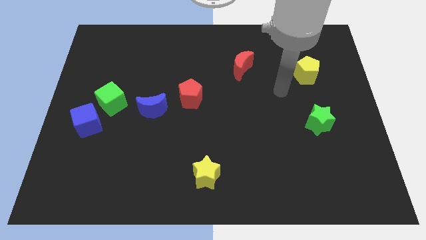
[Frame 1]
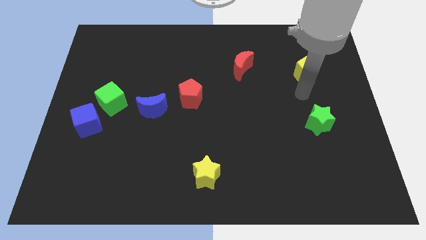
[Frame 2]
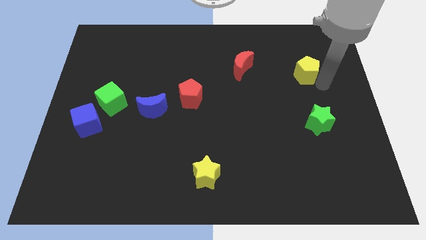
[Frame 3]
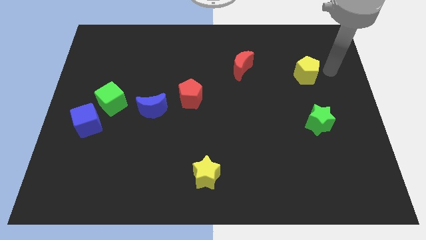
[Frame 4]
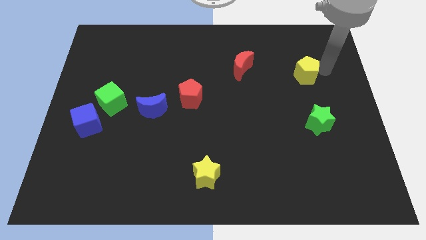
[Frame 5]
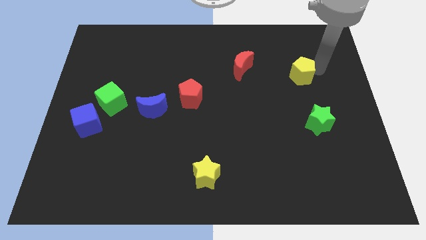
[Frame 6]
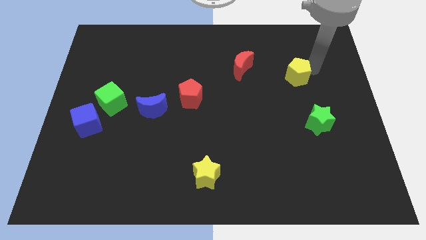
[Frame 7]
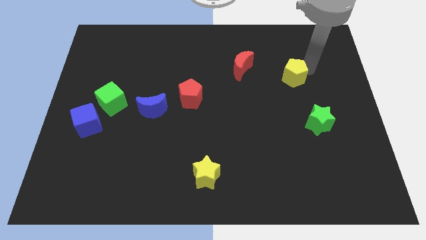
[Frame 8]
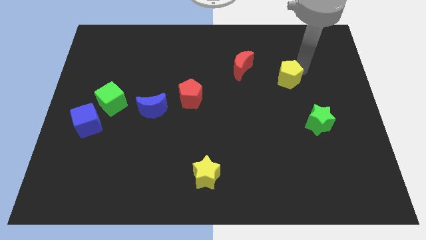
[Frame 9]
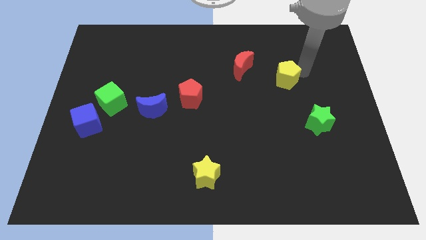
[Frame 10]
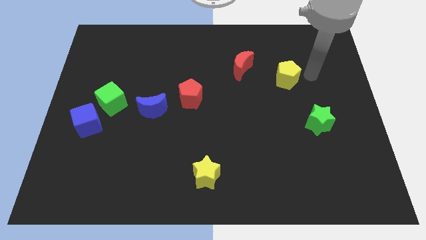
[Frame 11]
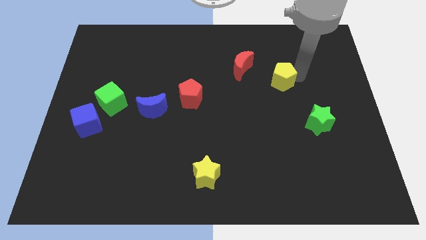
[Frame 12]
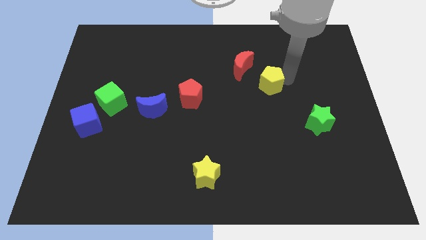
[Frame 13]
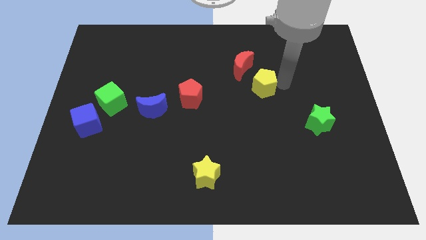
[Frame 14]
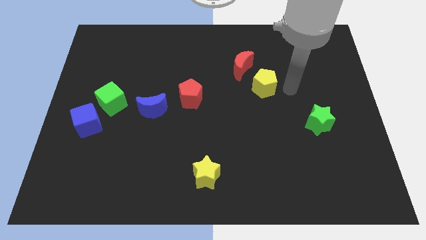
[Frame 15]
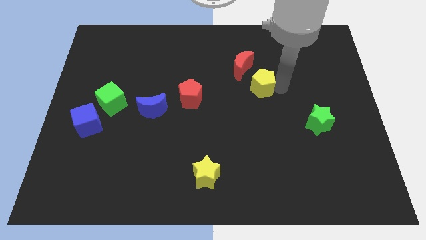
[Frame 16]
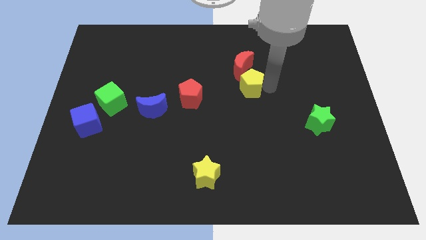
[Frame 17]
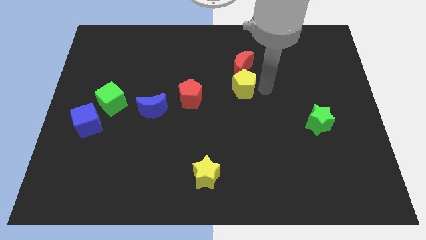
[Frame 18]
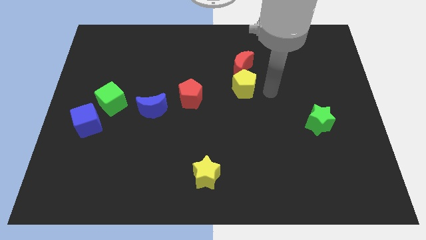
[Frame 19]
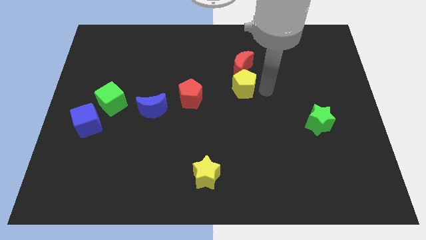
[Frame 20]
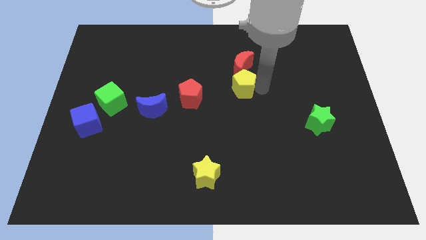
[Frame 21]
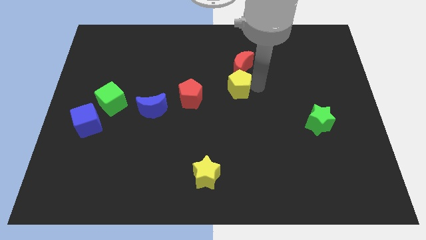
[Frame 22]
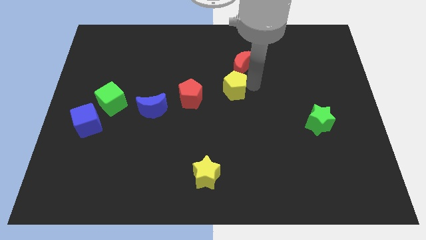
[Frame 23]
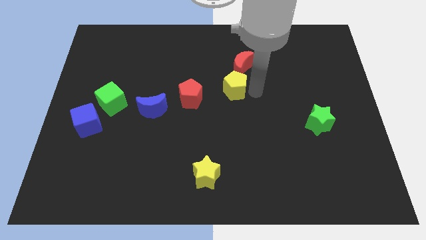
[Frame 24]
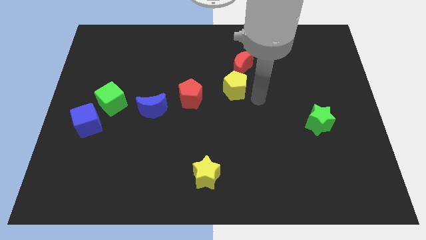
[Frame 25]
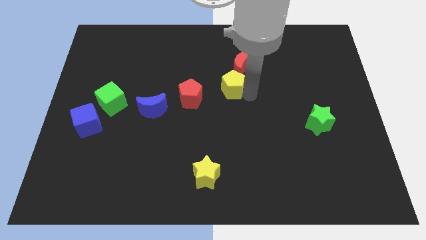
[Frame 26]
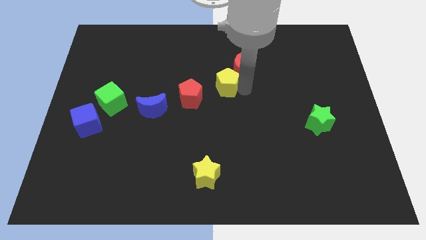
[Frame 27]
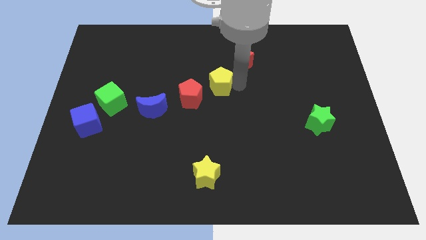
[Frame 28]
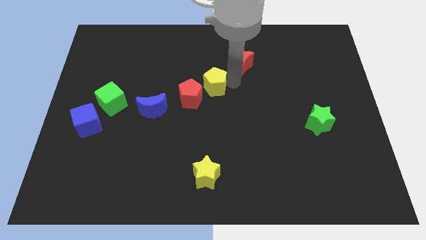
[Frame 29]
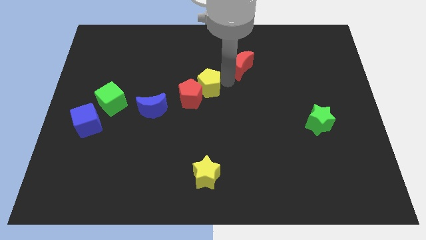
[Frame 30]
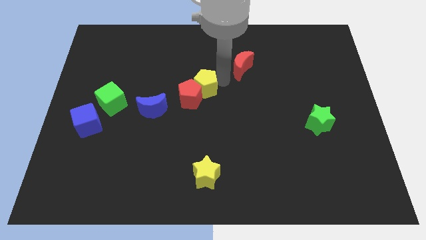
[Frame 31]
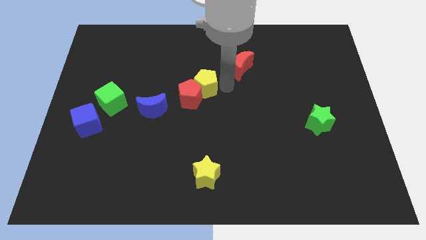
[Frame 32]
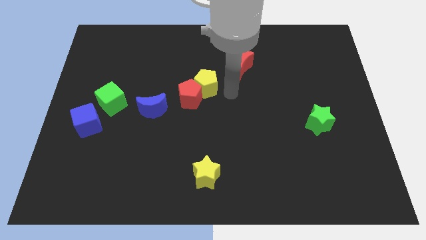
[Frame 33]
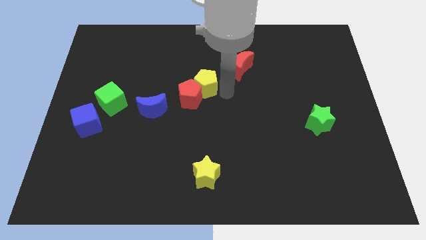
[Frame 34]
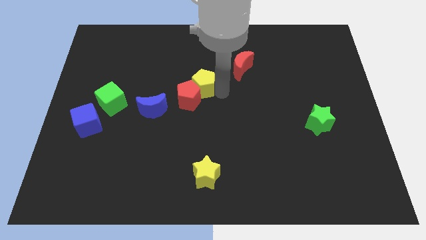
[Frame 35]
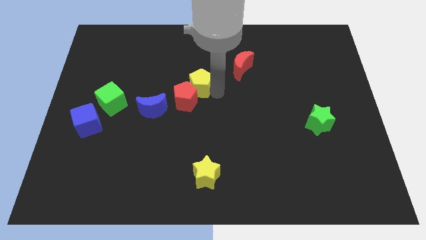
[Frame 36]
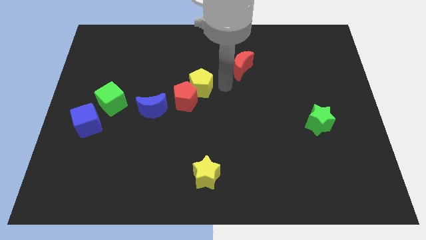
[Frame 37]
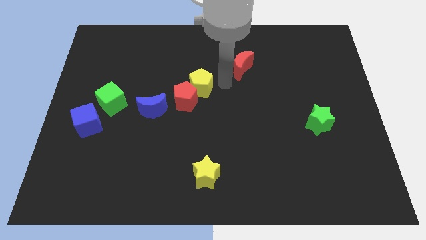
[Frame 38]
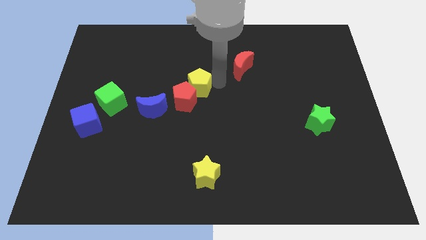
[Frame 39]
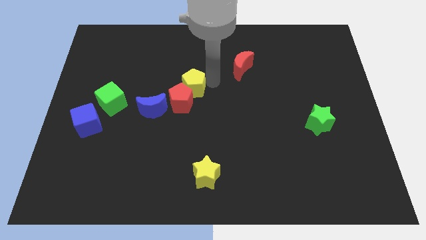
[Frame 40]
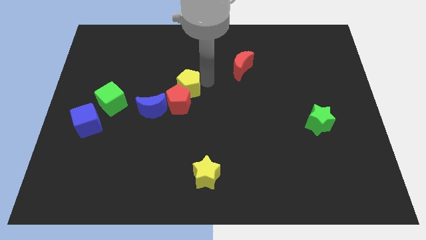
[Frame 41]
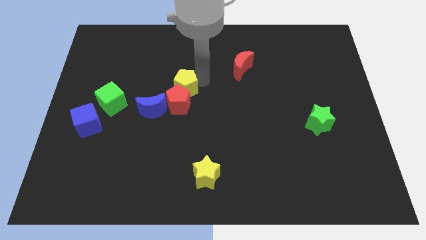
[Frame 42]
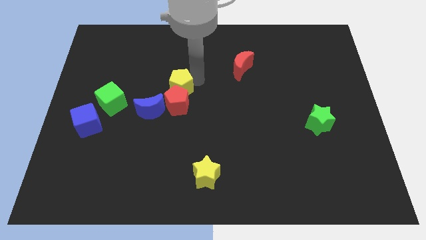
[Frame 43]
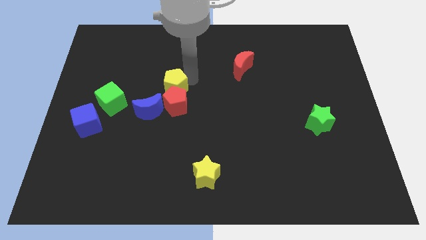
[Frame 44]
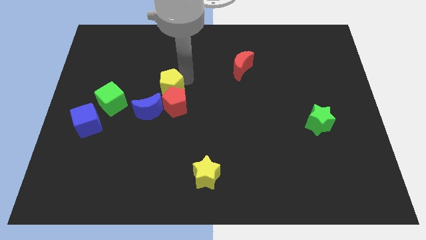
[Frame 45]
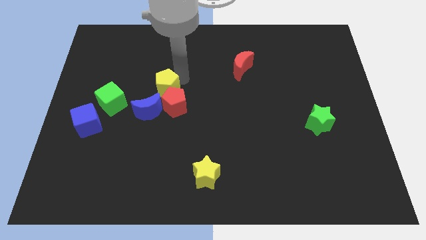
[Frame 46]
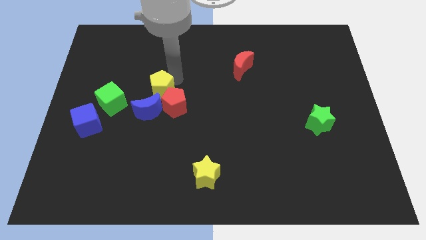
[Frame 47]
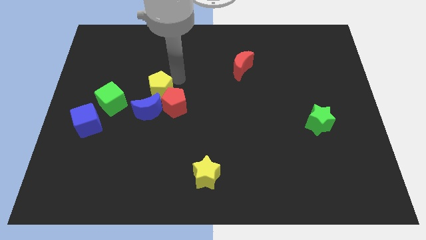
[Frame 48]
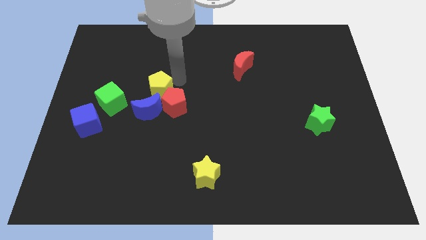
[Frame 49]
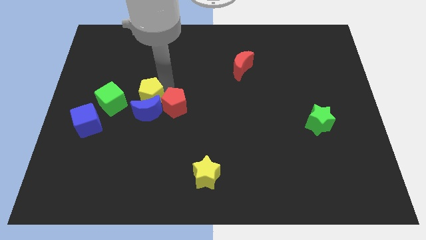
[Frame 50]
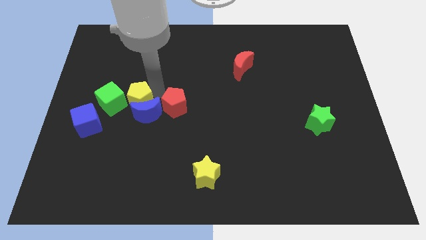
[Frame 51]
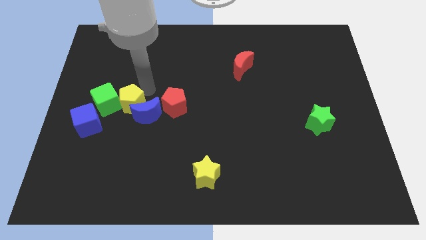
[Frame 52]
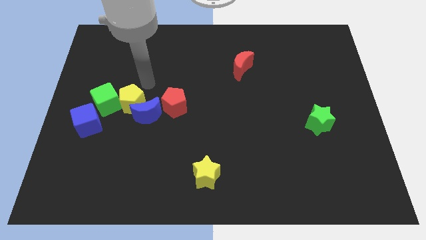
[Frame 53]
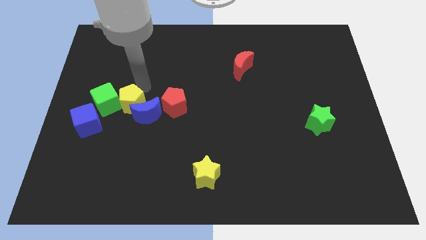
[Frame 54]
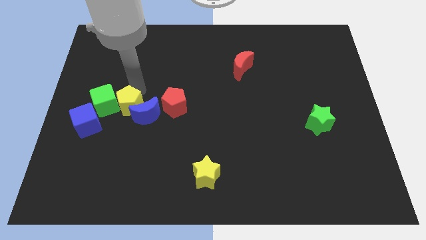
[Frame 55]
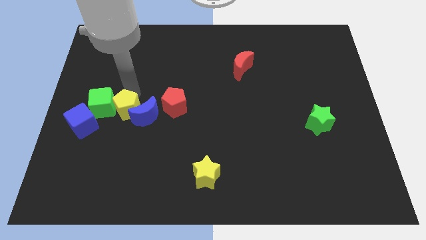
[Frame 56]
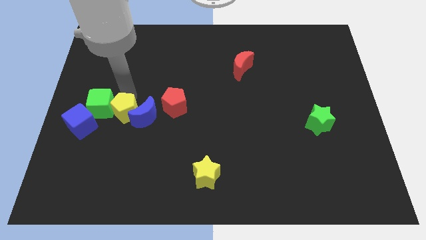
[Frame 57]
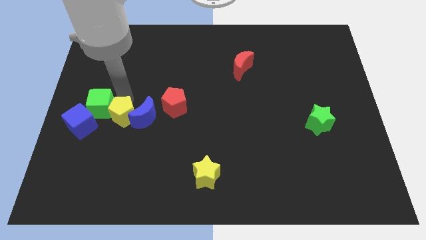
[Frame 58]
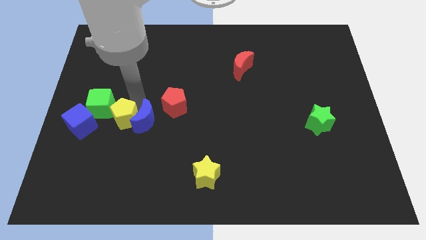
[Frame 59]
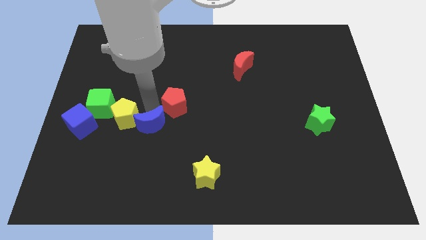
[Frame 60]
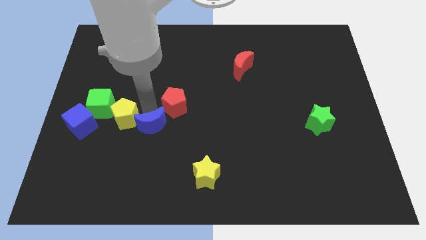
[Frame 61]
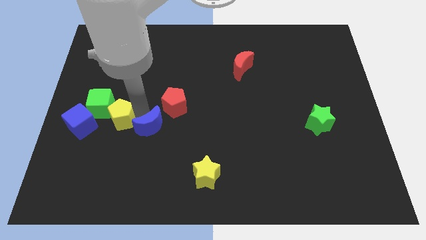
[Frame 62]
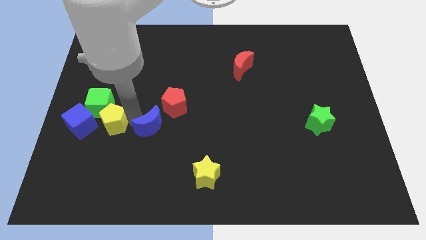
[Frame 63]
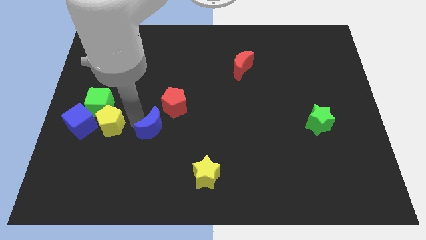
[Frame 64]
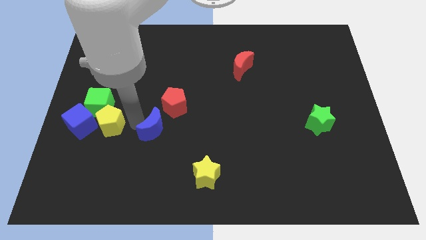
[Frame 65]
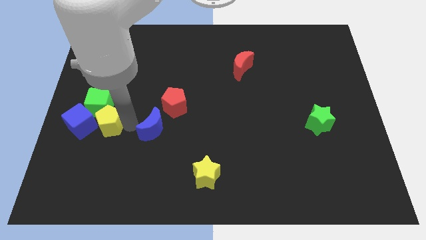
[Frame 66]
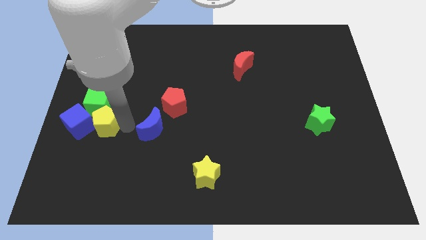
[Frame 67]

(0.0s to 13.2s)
slide the yellow pentagon next to the blue cube

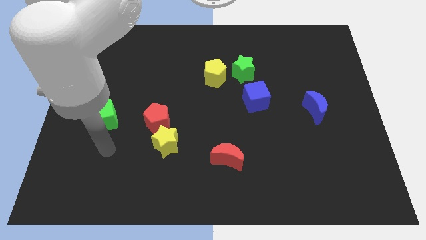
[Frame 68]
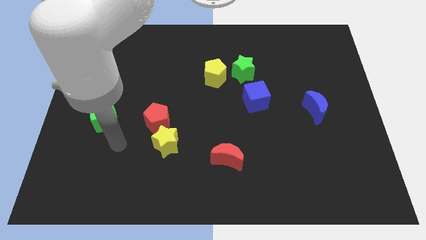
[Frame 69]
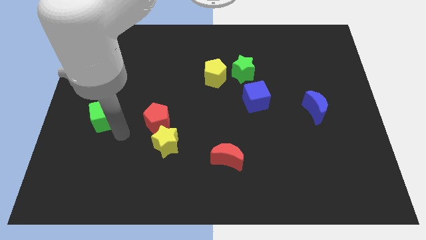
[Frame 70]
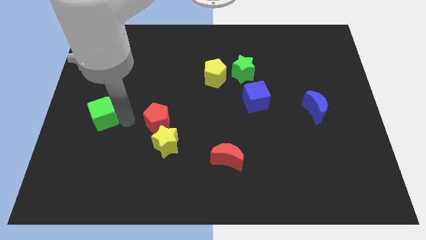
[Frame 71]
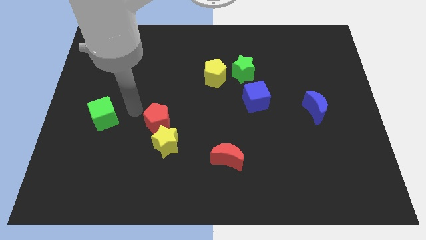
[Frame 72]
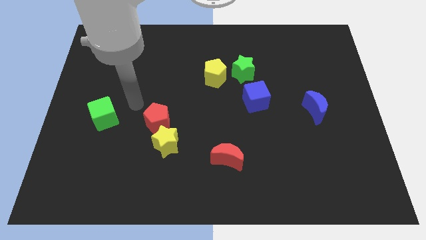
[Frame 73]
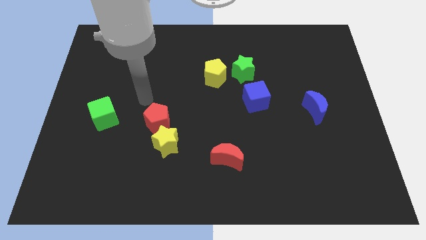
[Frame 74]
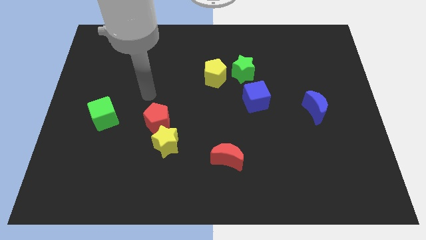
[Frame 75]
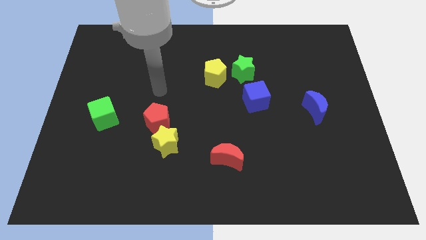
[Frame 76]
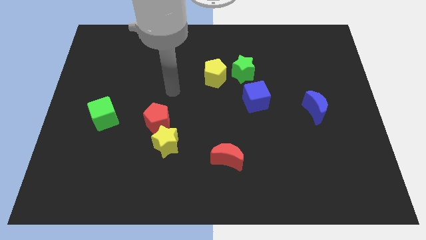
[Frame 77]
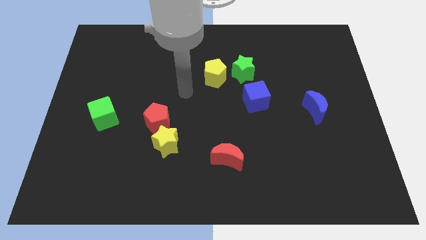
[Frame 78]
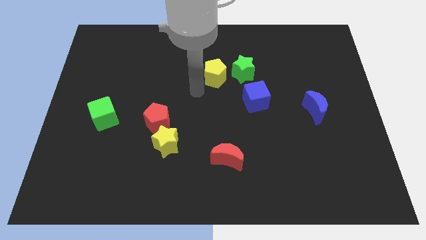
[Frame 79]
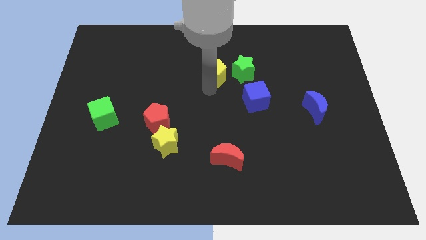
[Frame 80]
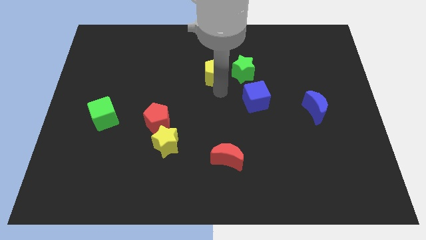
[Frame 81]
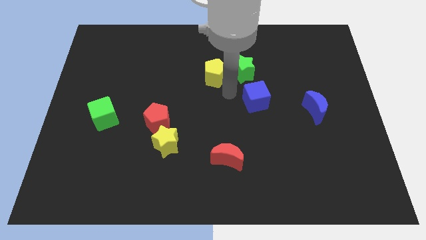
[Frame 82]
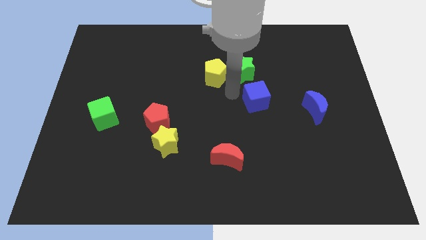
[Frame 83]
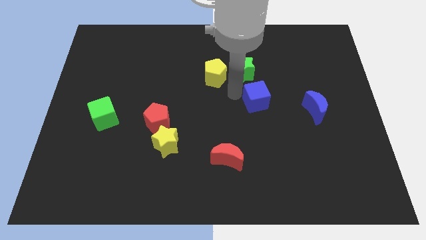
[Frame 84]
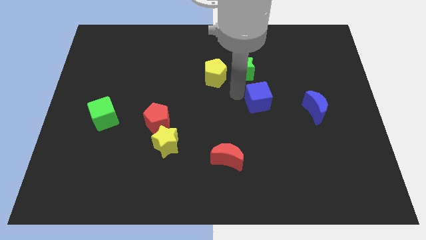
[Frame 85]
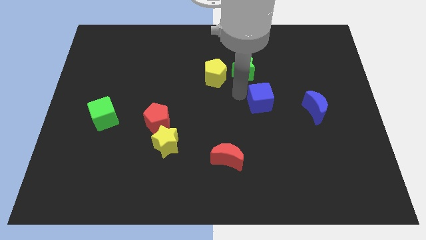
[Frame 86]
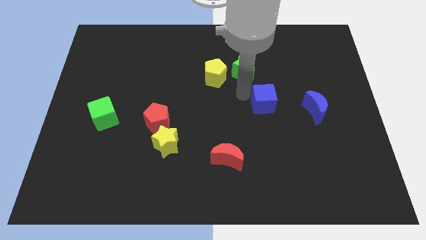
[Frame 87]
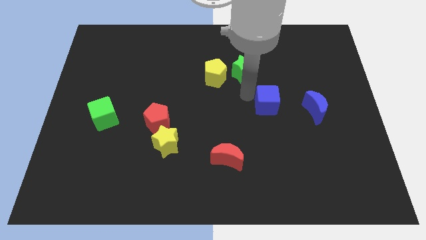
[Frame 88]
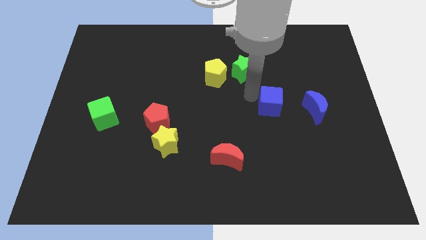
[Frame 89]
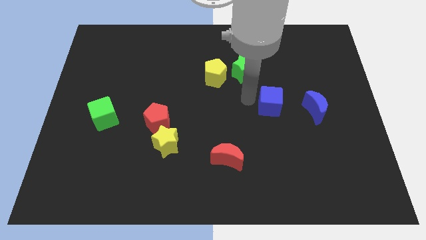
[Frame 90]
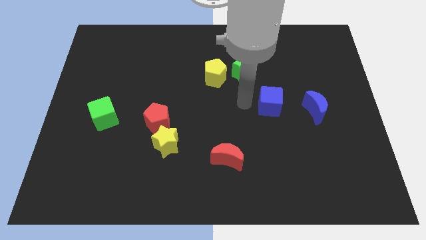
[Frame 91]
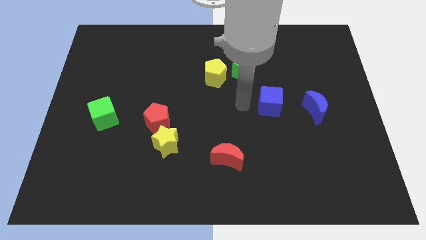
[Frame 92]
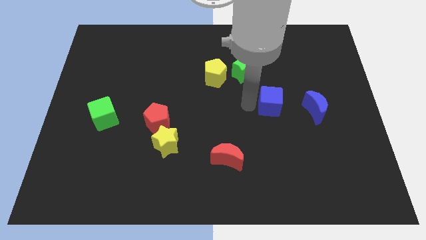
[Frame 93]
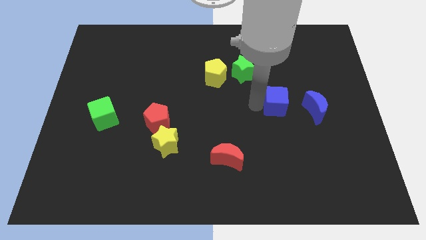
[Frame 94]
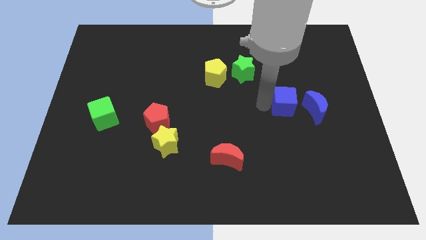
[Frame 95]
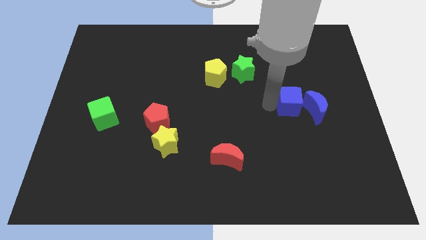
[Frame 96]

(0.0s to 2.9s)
move the blue cube towards the blue moon
